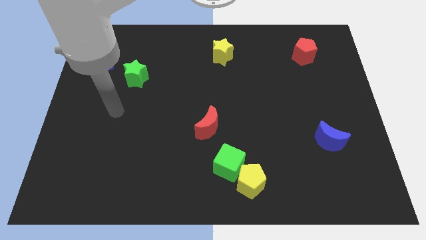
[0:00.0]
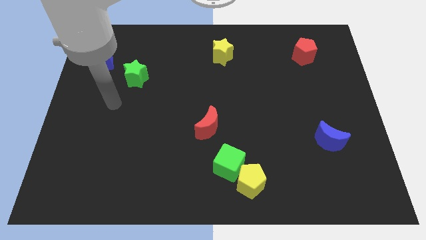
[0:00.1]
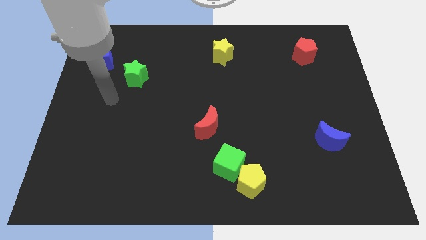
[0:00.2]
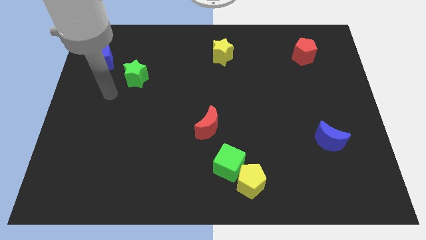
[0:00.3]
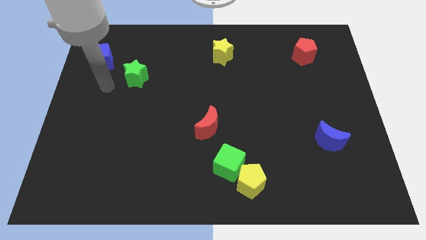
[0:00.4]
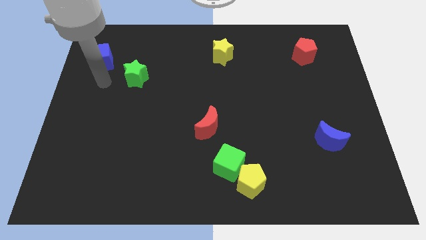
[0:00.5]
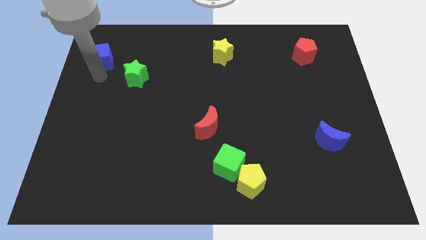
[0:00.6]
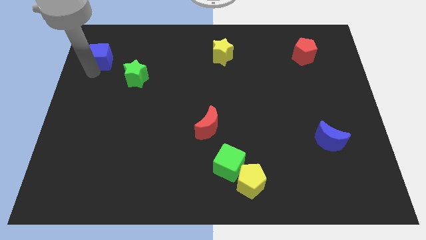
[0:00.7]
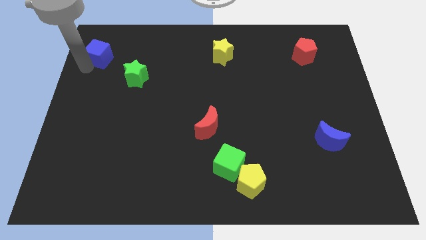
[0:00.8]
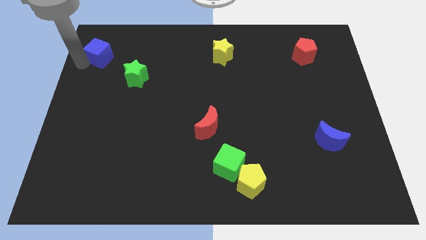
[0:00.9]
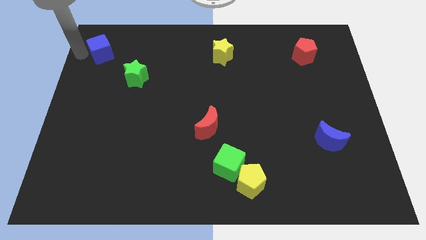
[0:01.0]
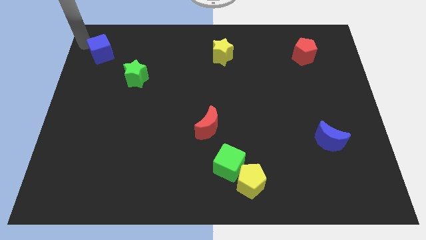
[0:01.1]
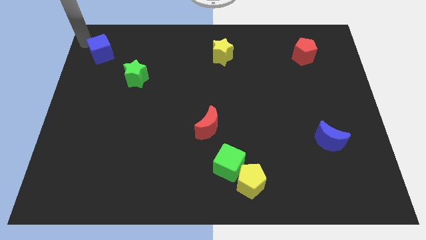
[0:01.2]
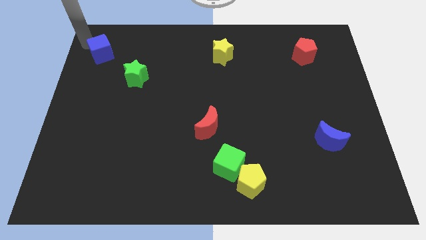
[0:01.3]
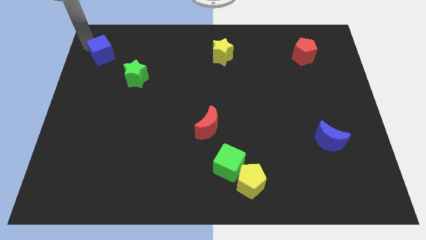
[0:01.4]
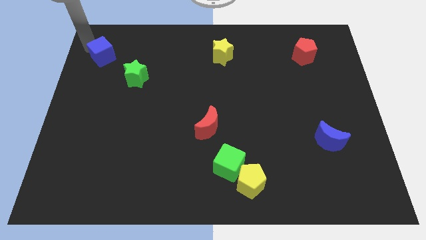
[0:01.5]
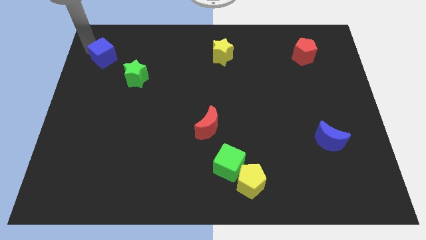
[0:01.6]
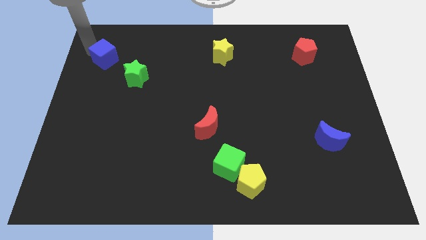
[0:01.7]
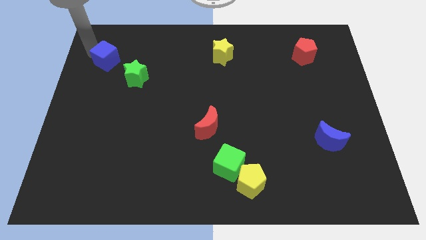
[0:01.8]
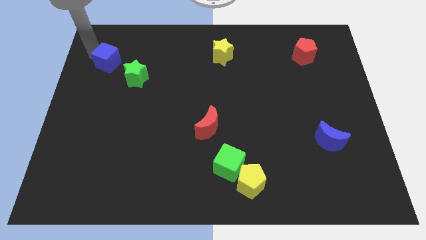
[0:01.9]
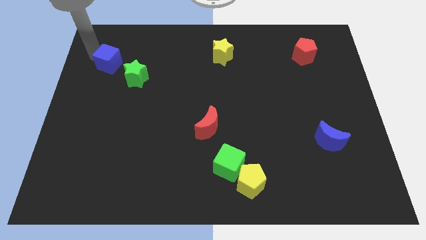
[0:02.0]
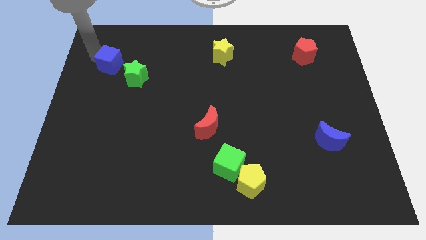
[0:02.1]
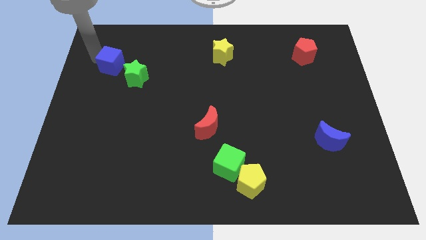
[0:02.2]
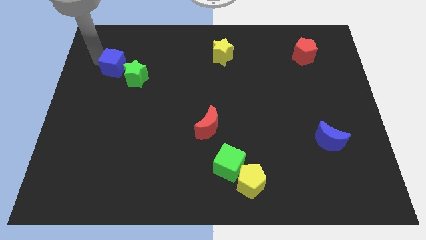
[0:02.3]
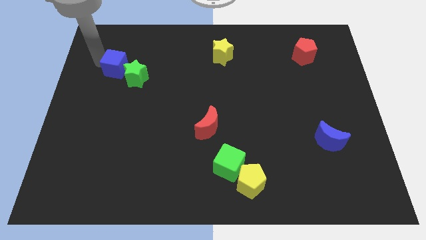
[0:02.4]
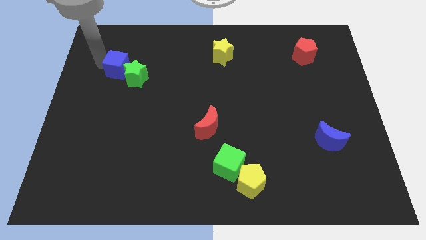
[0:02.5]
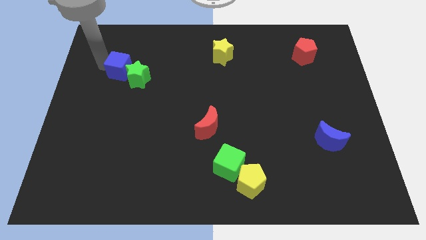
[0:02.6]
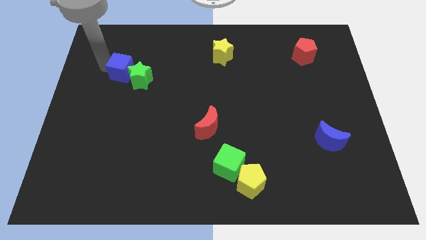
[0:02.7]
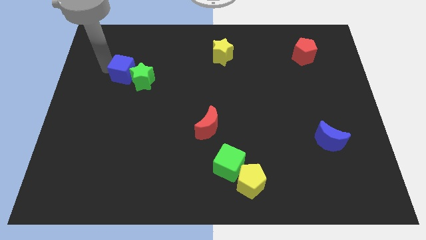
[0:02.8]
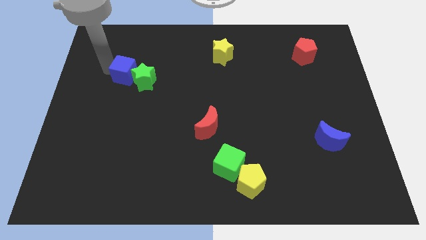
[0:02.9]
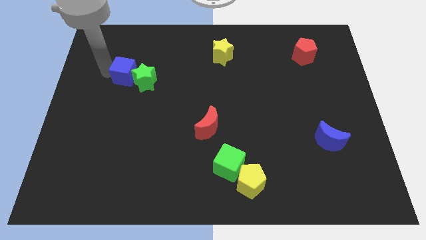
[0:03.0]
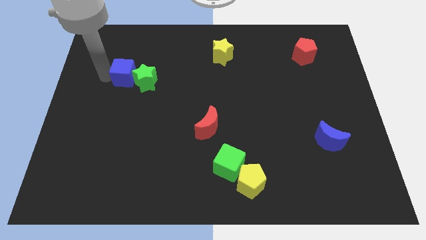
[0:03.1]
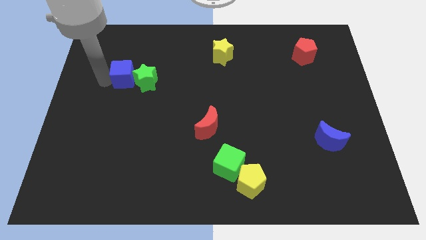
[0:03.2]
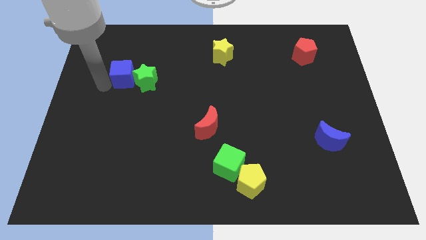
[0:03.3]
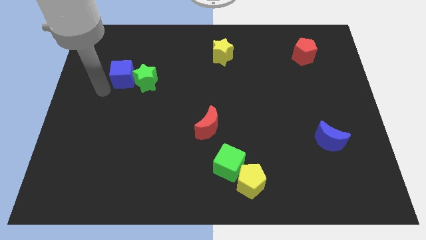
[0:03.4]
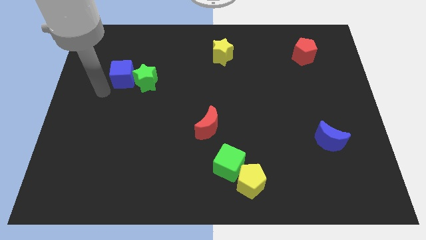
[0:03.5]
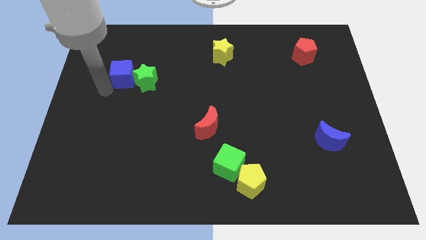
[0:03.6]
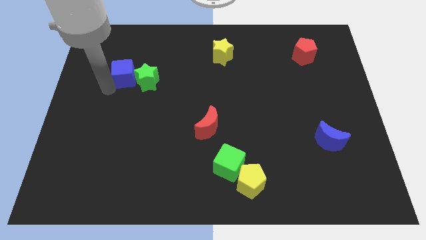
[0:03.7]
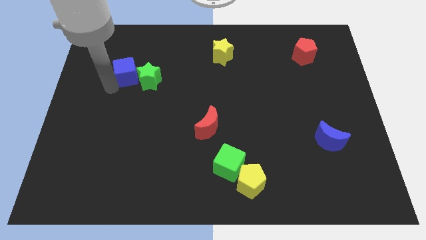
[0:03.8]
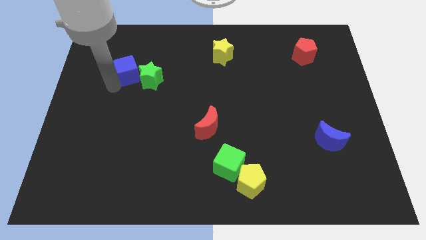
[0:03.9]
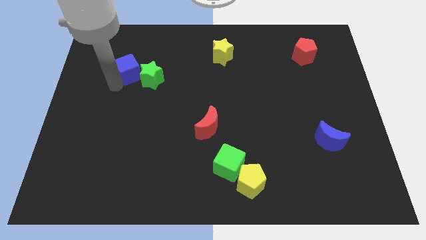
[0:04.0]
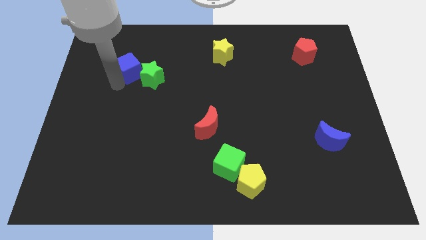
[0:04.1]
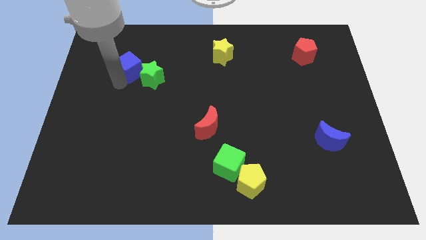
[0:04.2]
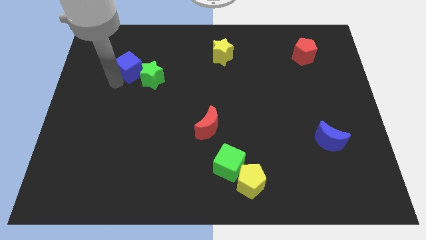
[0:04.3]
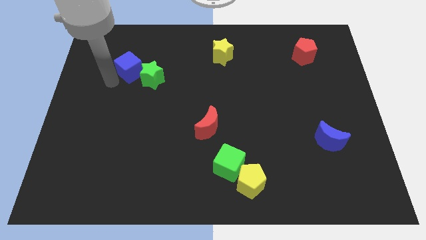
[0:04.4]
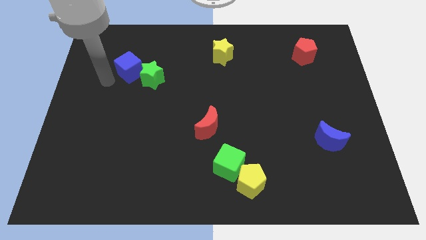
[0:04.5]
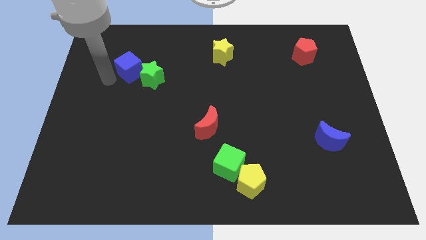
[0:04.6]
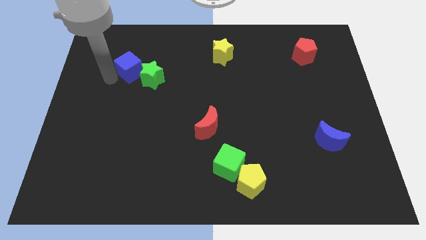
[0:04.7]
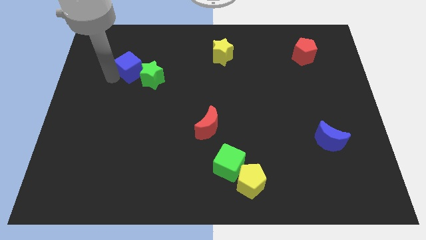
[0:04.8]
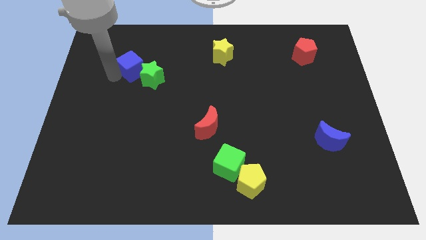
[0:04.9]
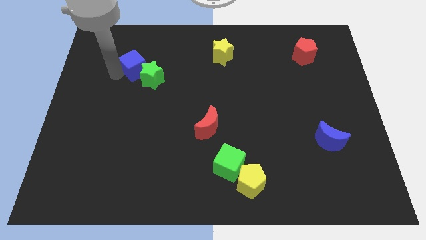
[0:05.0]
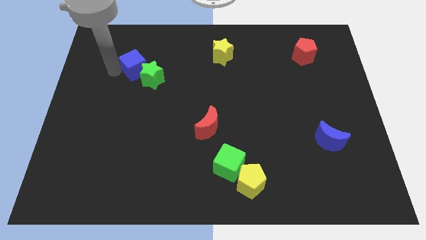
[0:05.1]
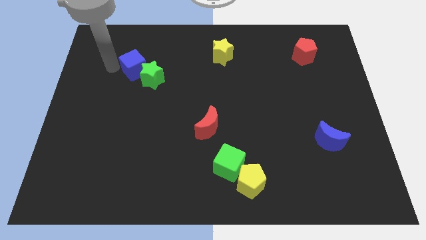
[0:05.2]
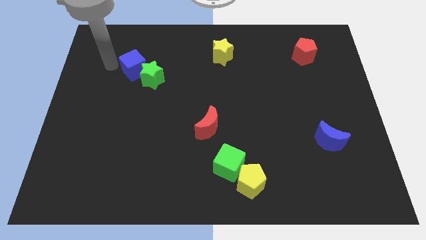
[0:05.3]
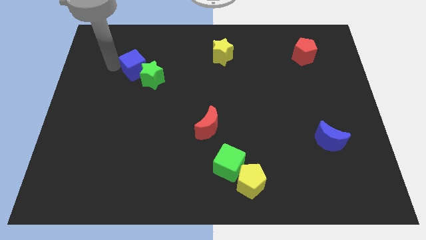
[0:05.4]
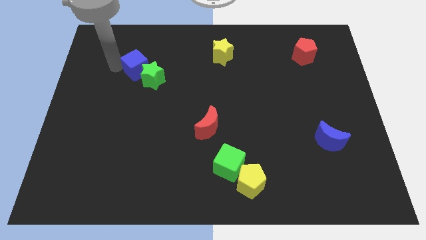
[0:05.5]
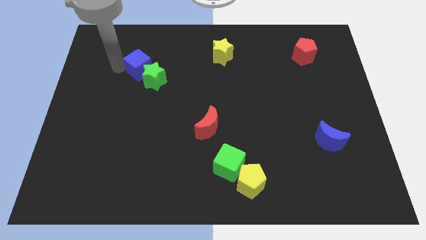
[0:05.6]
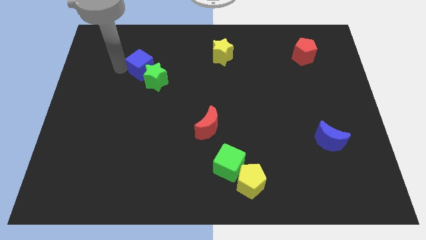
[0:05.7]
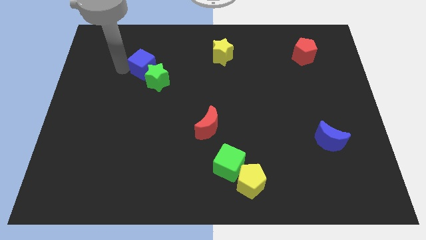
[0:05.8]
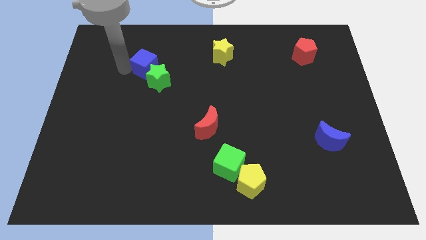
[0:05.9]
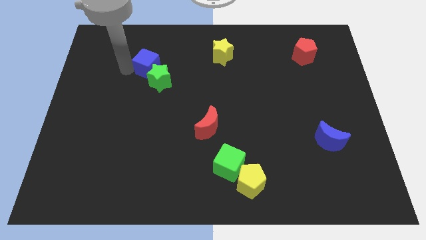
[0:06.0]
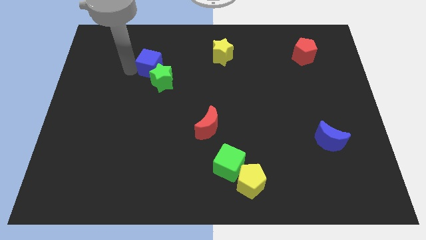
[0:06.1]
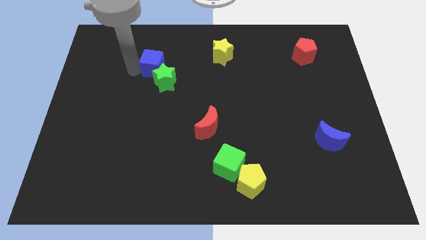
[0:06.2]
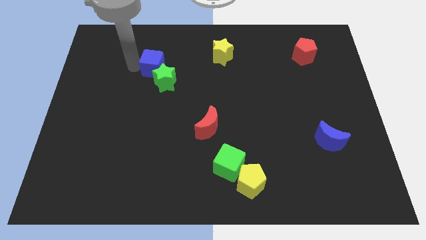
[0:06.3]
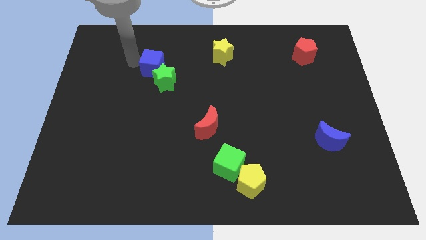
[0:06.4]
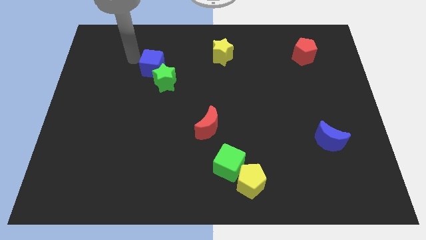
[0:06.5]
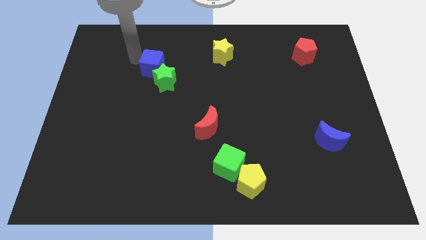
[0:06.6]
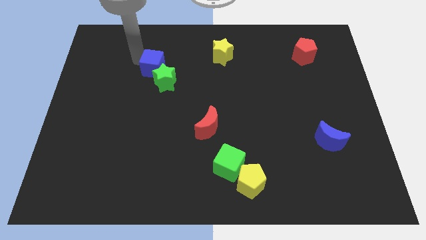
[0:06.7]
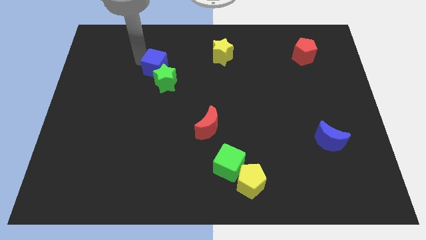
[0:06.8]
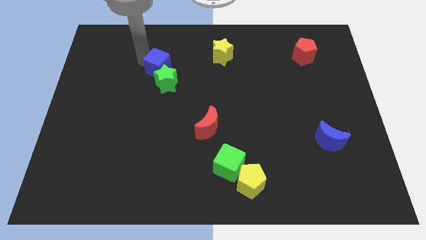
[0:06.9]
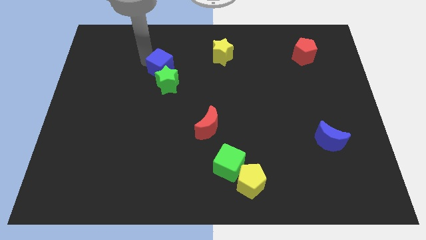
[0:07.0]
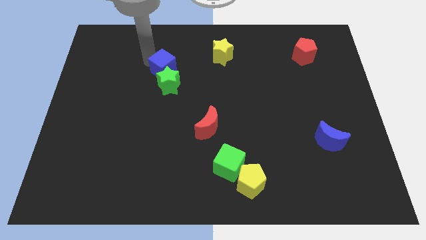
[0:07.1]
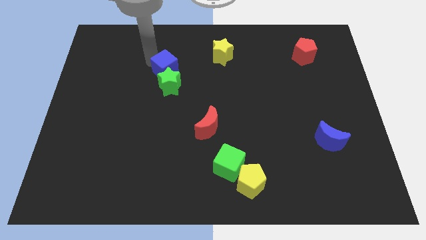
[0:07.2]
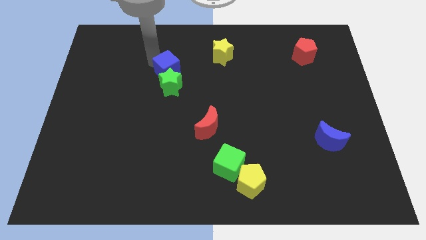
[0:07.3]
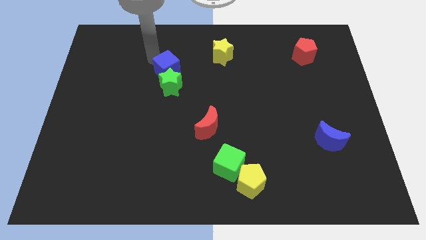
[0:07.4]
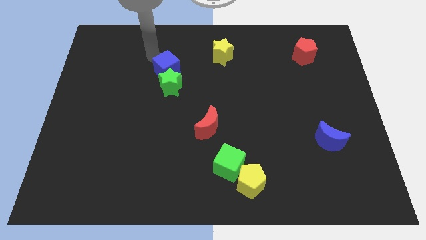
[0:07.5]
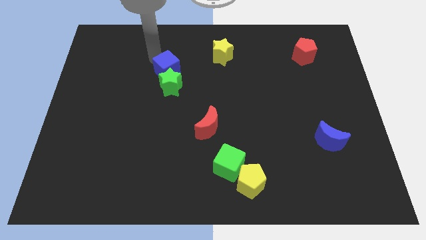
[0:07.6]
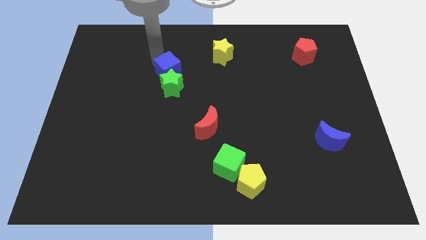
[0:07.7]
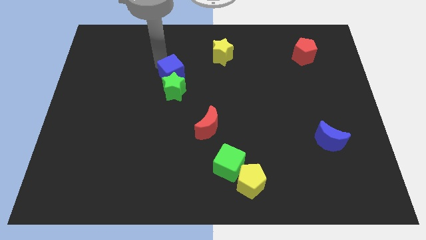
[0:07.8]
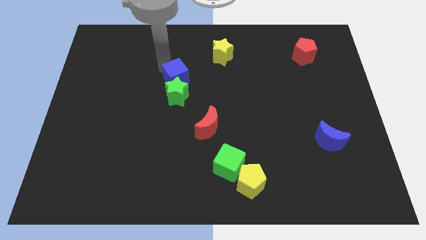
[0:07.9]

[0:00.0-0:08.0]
put the blue cube to the middle
